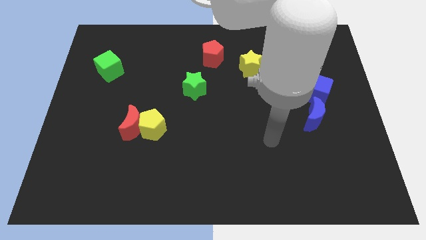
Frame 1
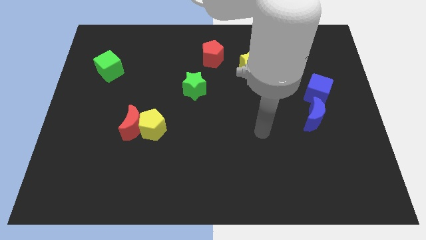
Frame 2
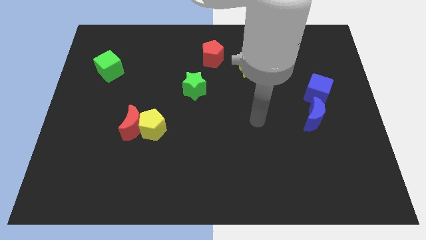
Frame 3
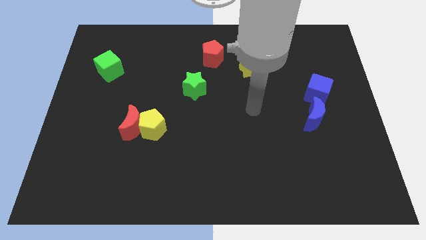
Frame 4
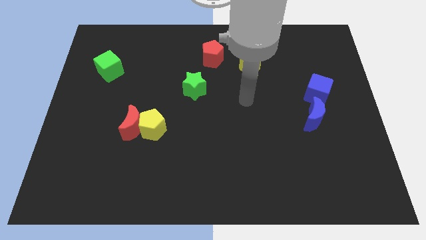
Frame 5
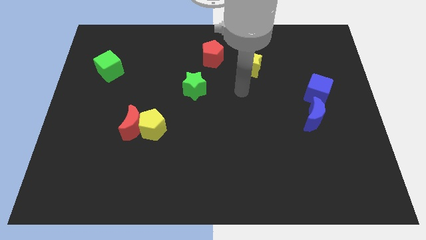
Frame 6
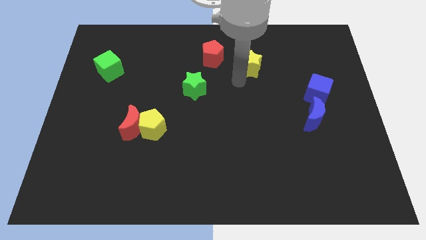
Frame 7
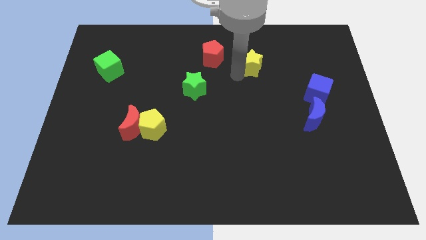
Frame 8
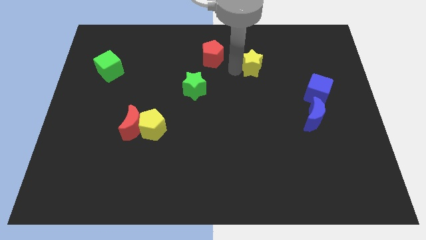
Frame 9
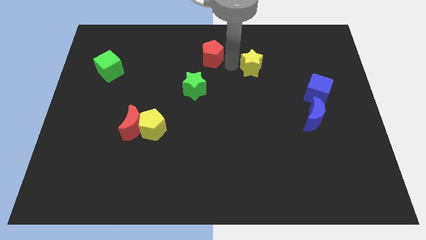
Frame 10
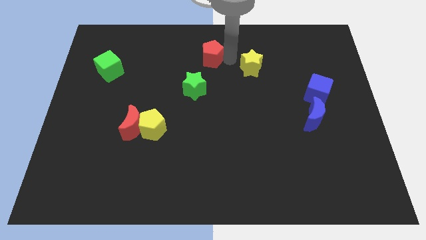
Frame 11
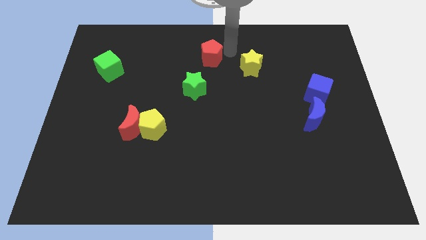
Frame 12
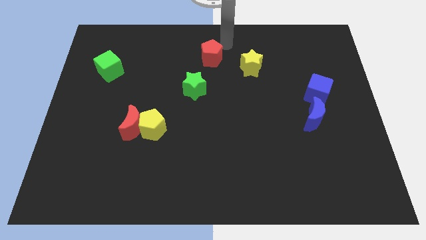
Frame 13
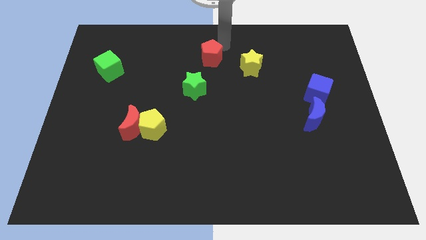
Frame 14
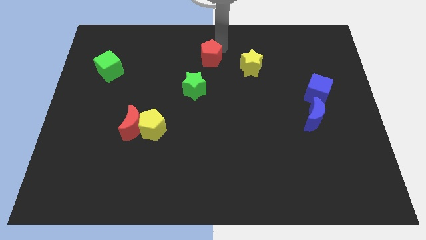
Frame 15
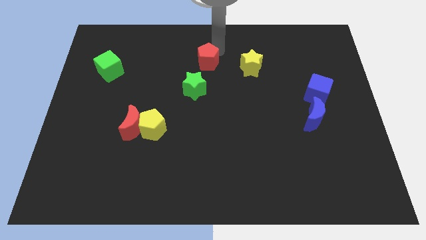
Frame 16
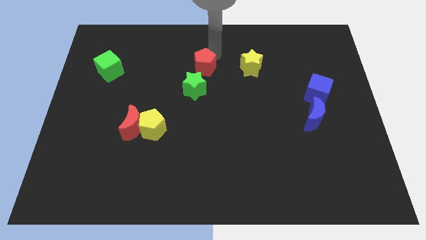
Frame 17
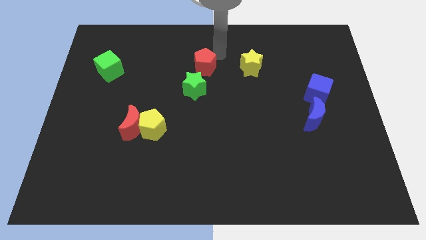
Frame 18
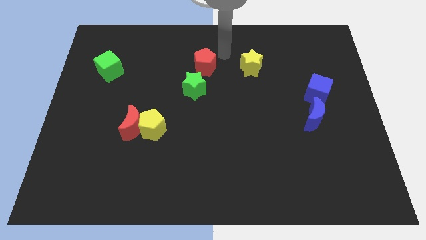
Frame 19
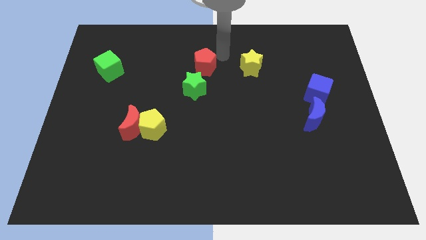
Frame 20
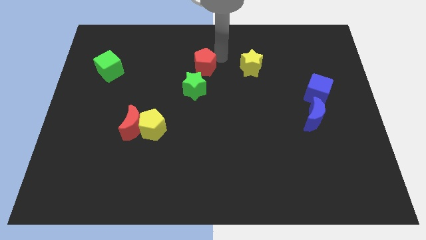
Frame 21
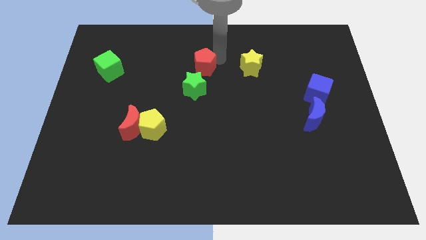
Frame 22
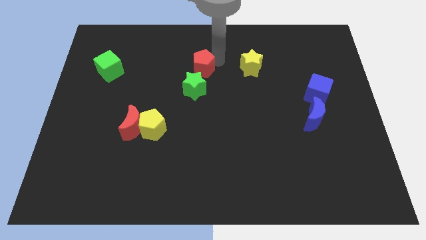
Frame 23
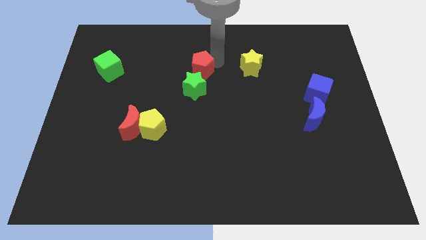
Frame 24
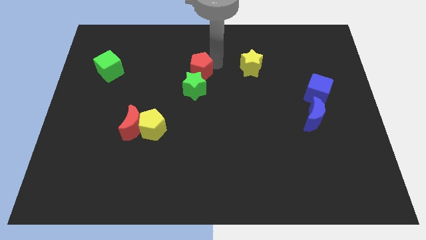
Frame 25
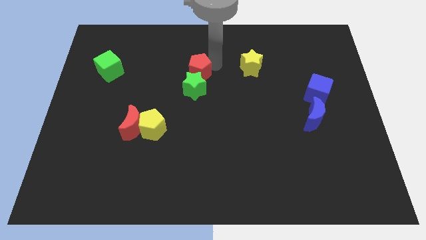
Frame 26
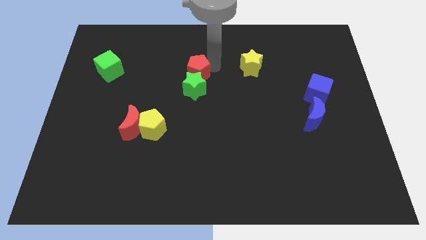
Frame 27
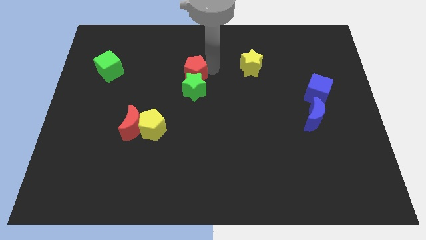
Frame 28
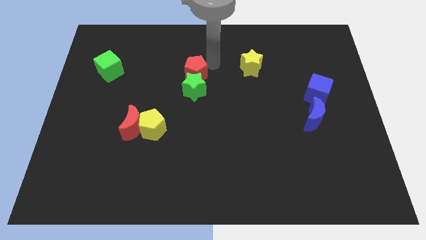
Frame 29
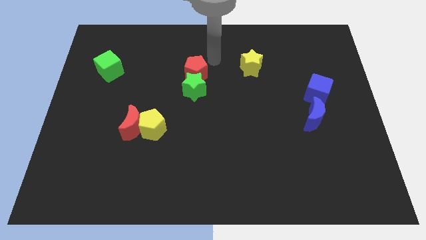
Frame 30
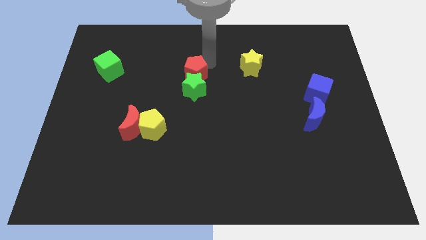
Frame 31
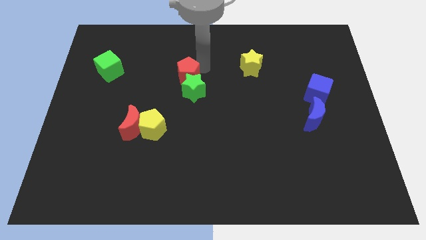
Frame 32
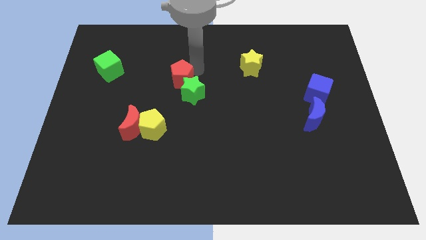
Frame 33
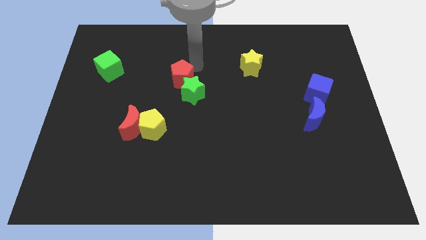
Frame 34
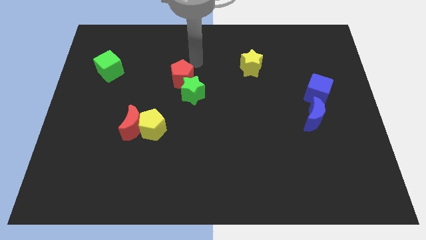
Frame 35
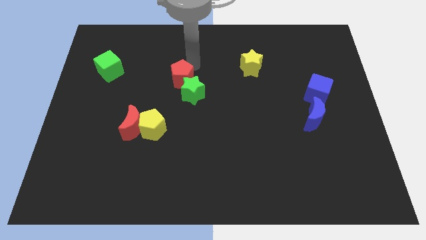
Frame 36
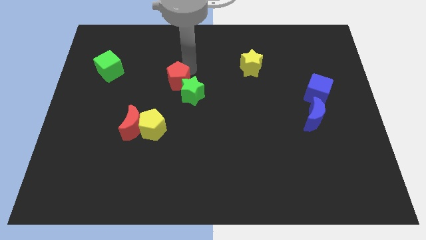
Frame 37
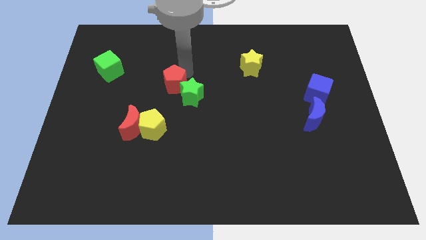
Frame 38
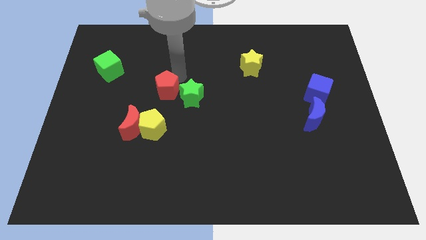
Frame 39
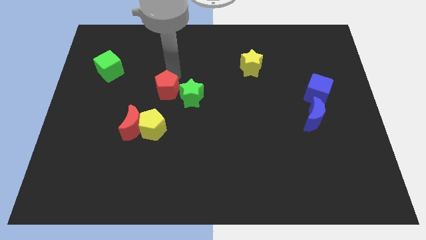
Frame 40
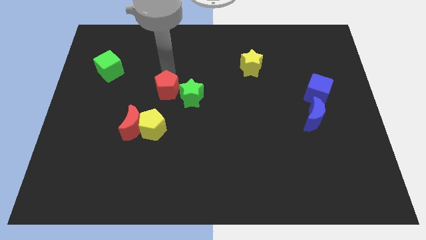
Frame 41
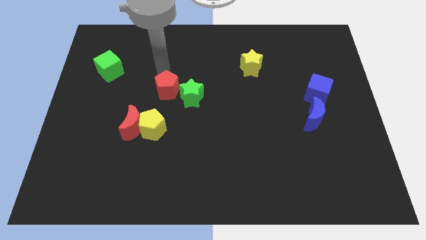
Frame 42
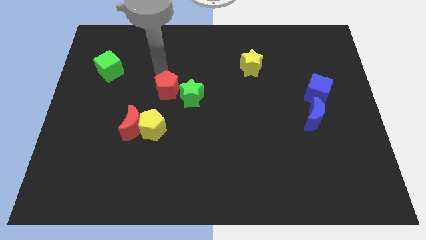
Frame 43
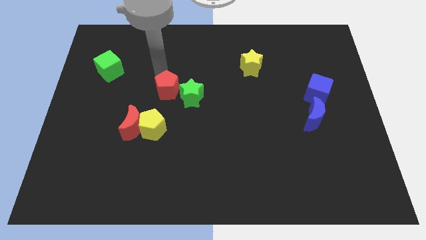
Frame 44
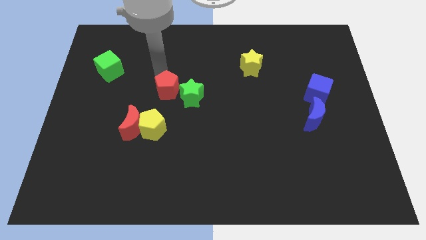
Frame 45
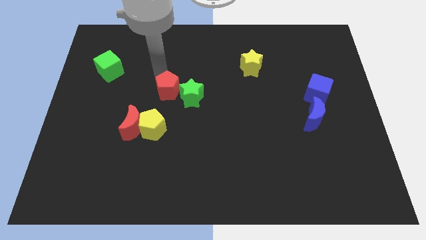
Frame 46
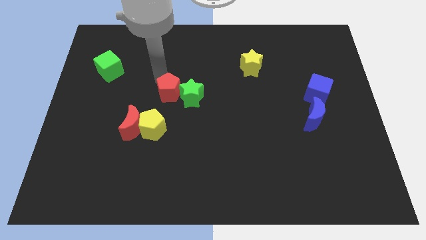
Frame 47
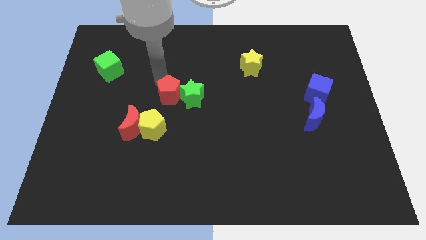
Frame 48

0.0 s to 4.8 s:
slide the red pentagon diagonally up and to the right of the yellow pentagon

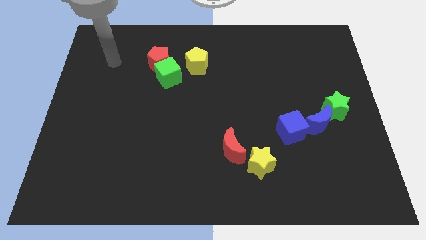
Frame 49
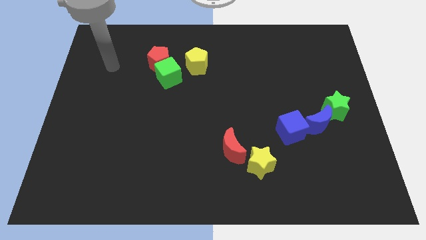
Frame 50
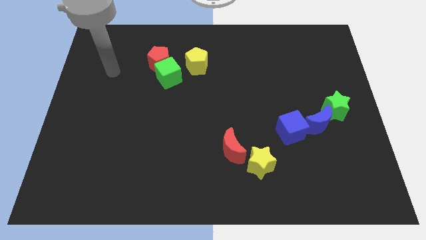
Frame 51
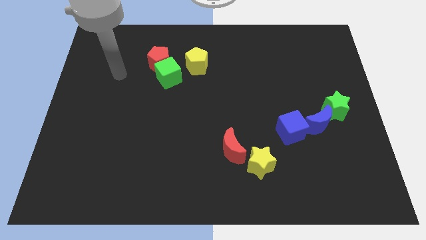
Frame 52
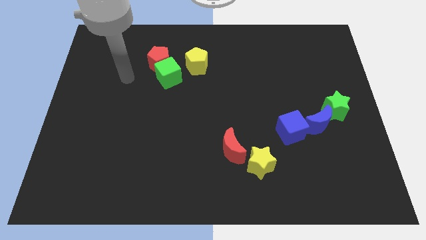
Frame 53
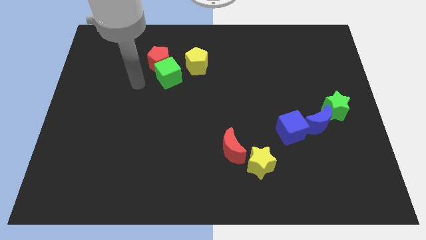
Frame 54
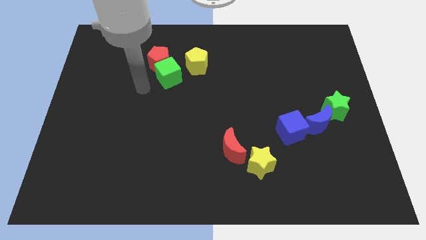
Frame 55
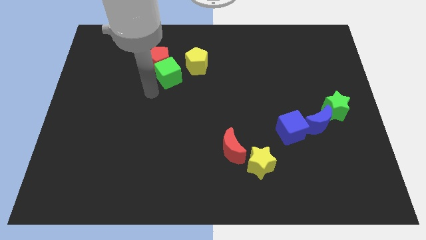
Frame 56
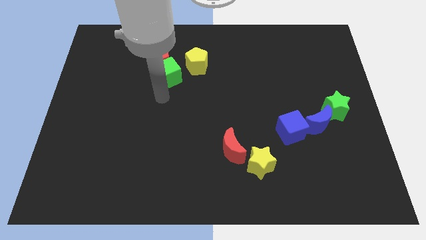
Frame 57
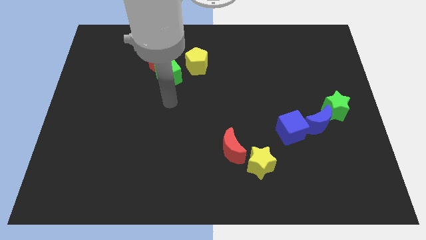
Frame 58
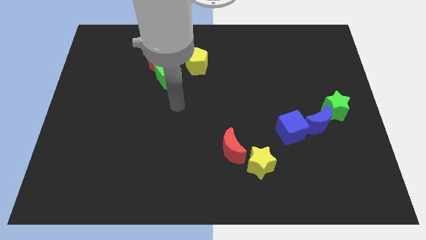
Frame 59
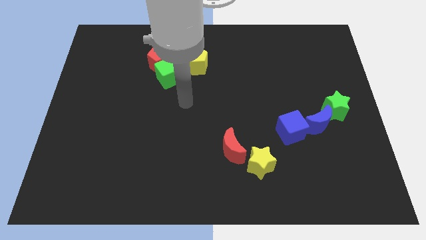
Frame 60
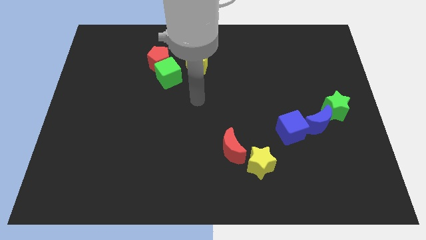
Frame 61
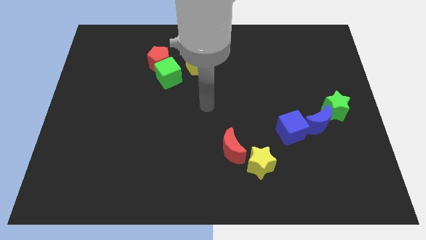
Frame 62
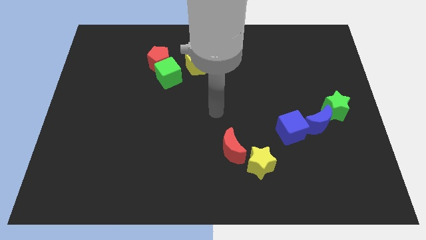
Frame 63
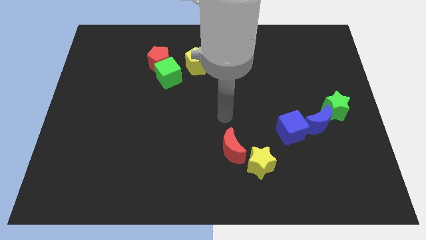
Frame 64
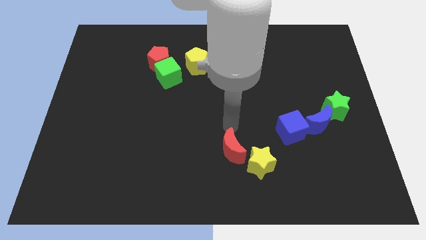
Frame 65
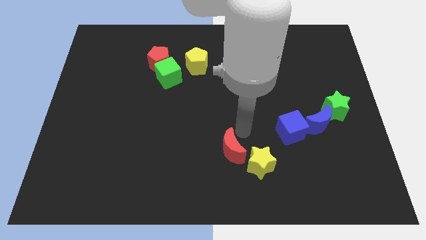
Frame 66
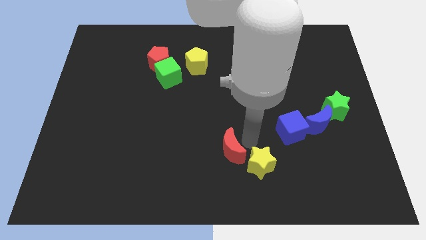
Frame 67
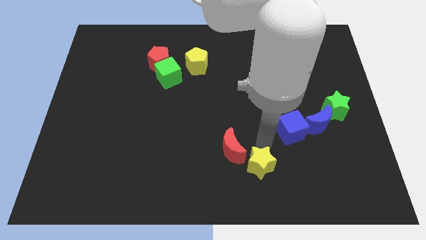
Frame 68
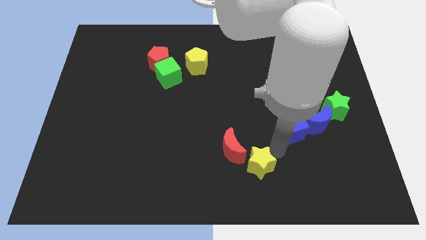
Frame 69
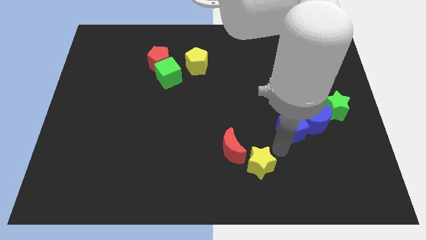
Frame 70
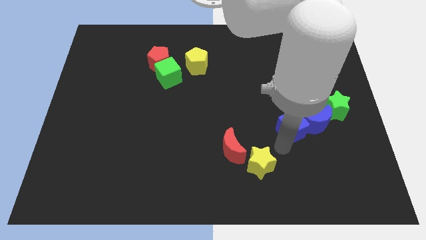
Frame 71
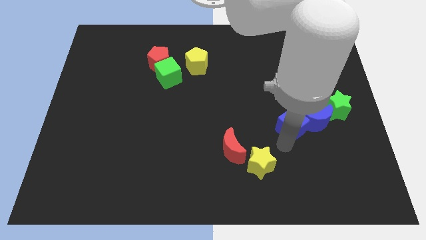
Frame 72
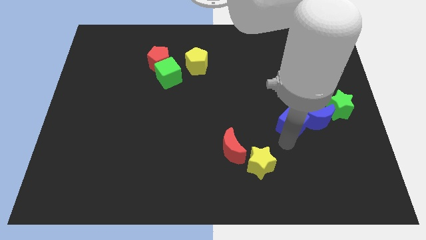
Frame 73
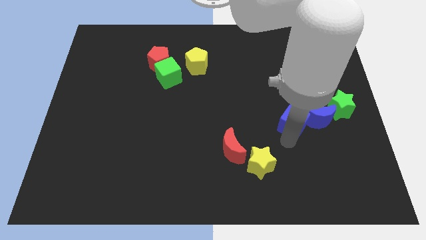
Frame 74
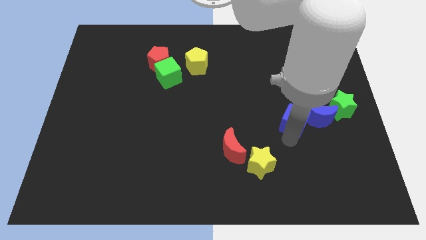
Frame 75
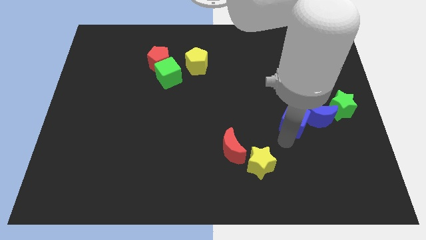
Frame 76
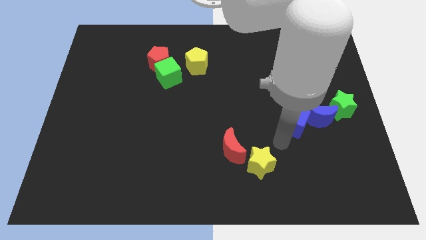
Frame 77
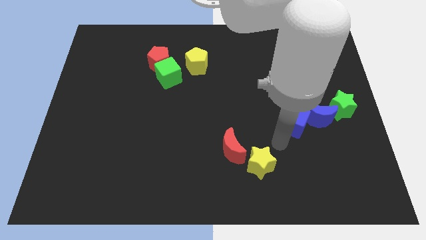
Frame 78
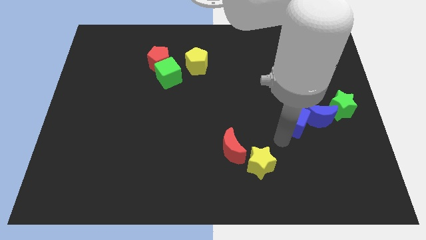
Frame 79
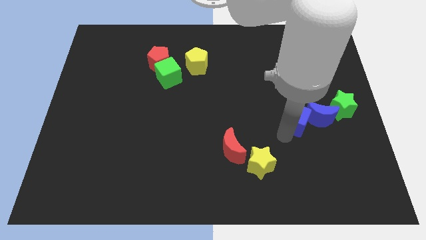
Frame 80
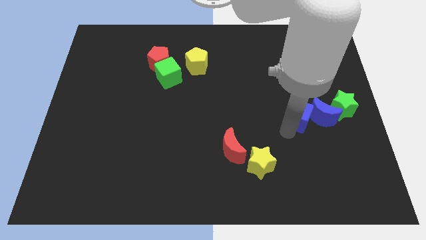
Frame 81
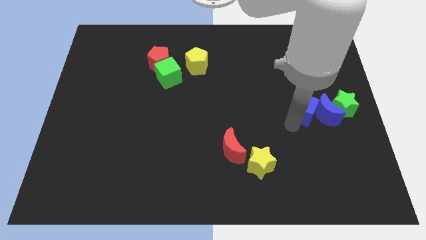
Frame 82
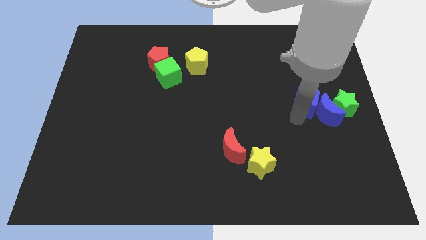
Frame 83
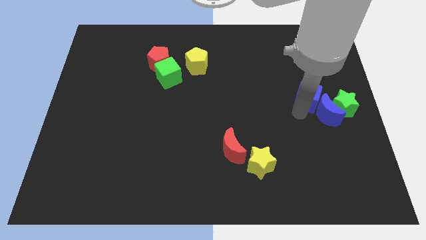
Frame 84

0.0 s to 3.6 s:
slide the blue cube to the top left side of the green star
